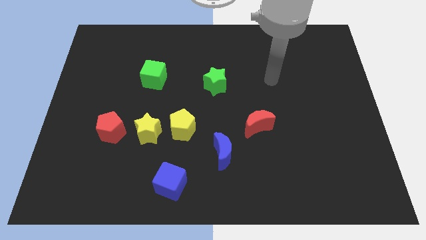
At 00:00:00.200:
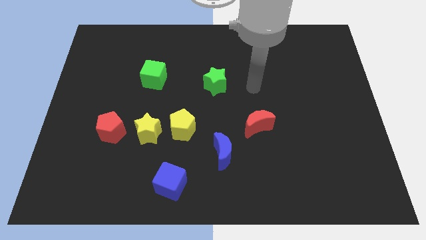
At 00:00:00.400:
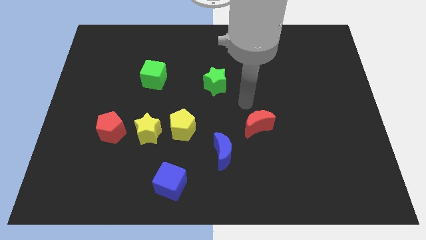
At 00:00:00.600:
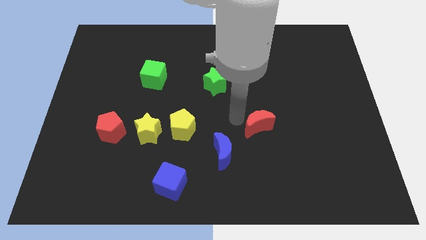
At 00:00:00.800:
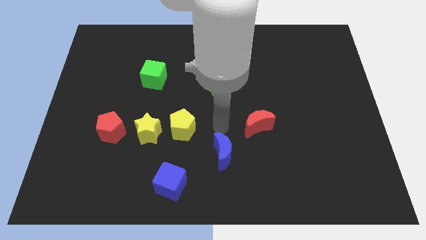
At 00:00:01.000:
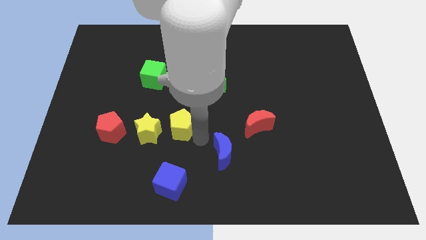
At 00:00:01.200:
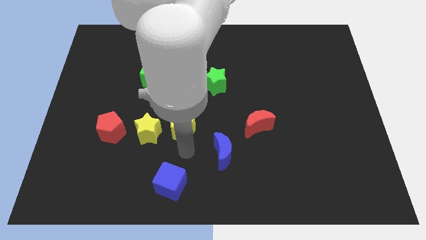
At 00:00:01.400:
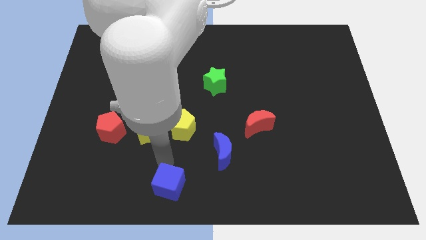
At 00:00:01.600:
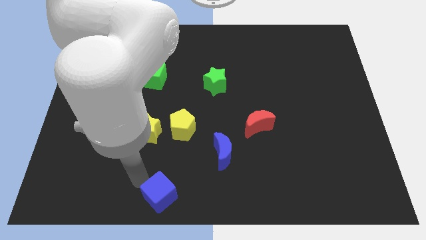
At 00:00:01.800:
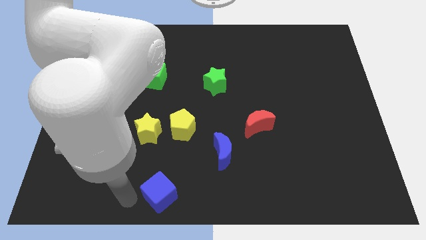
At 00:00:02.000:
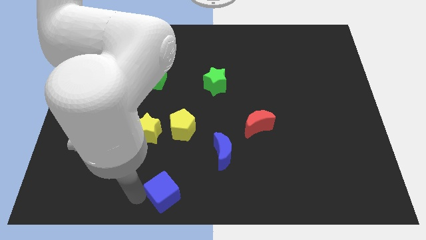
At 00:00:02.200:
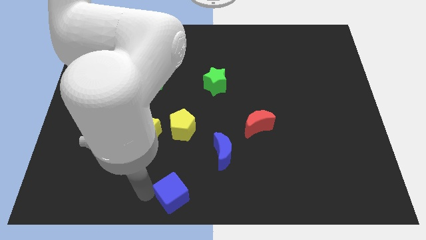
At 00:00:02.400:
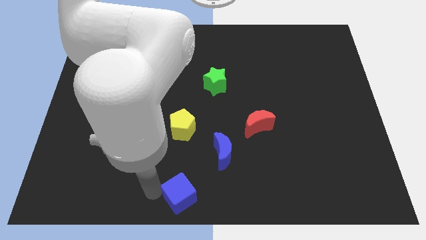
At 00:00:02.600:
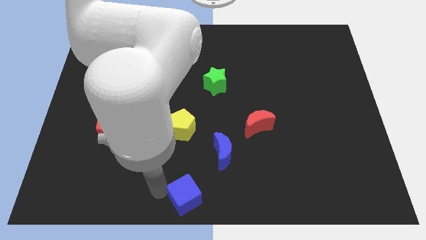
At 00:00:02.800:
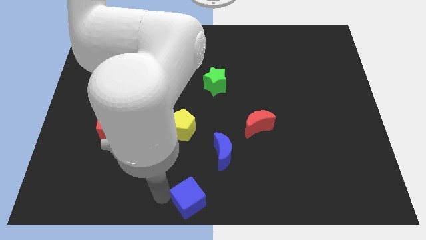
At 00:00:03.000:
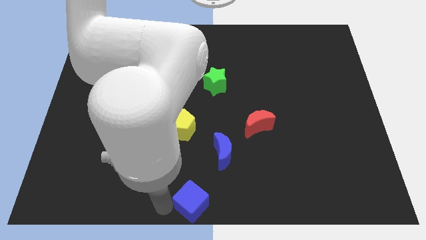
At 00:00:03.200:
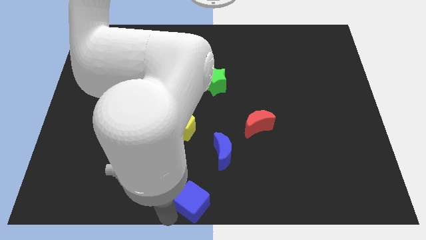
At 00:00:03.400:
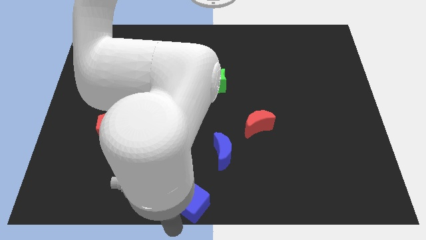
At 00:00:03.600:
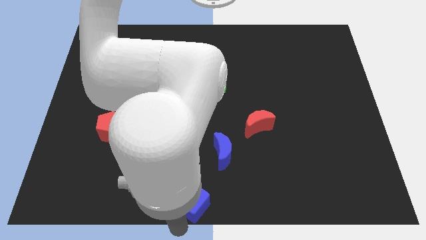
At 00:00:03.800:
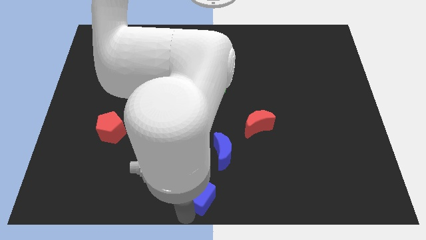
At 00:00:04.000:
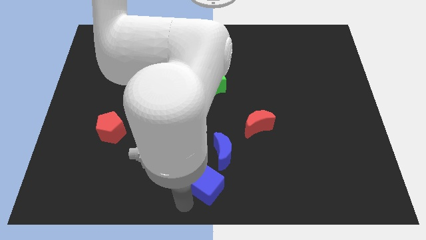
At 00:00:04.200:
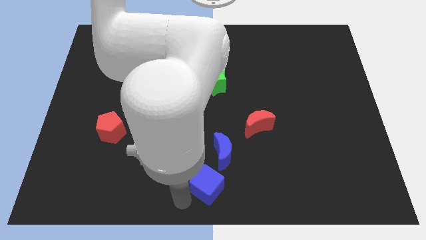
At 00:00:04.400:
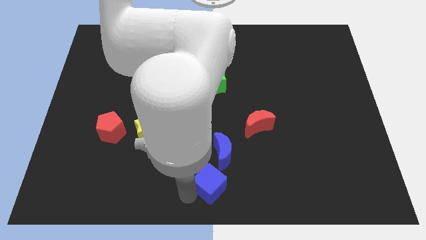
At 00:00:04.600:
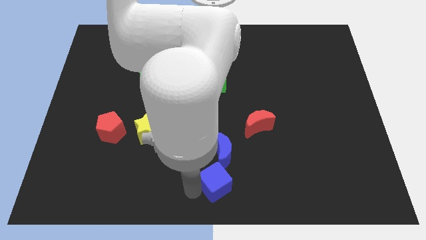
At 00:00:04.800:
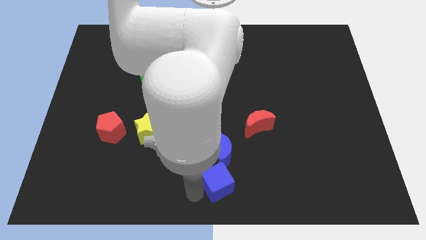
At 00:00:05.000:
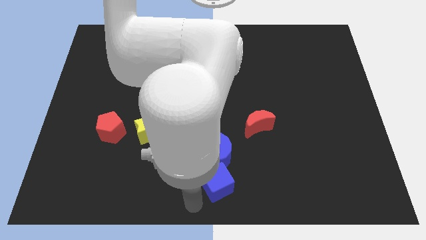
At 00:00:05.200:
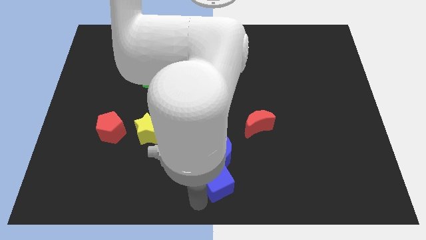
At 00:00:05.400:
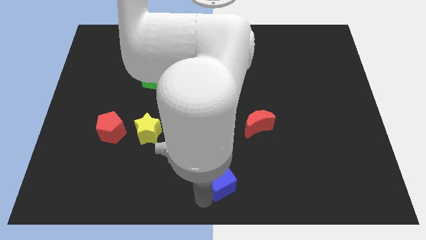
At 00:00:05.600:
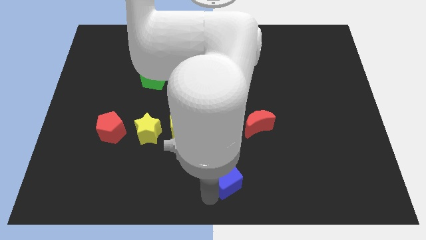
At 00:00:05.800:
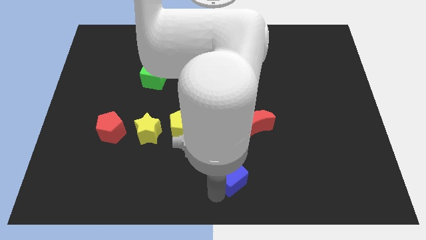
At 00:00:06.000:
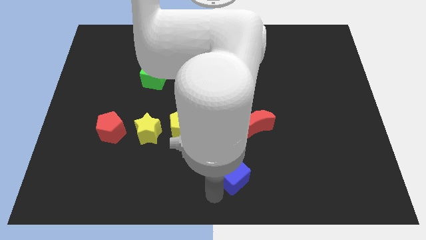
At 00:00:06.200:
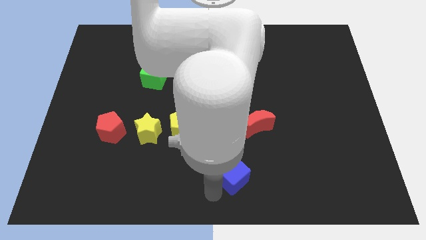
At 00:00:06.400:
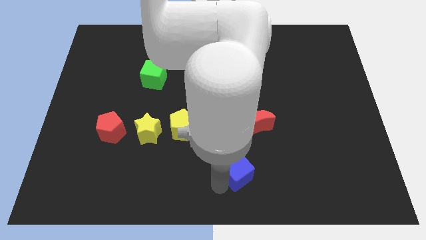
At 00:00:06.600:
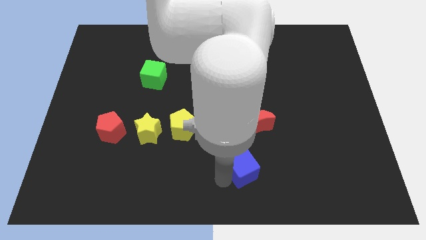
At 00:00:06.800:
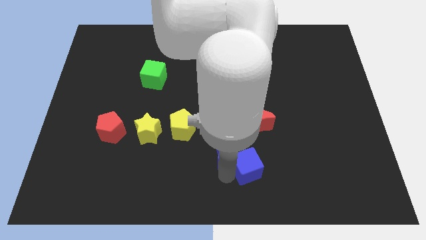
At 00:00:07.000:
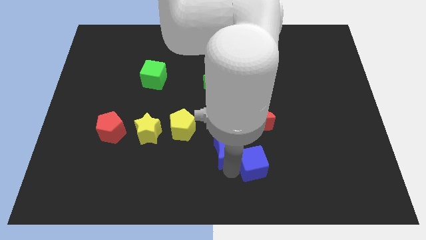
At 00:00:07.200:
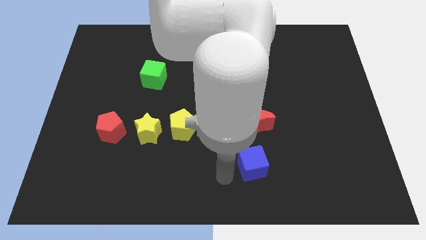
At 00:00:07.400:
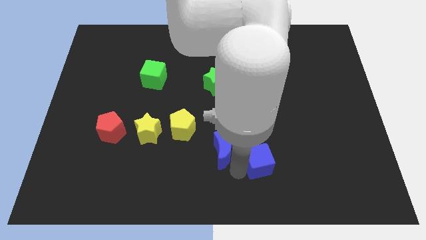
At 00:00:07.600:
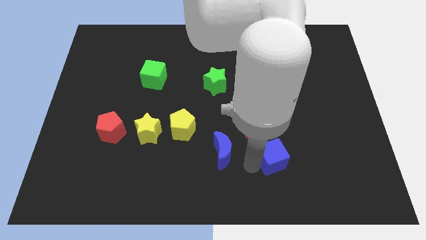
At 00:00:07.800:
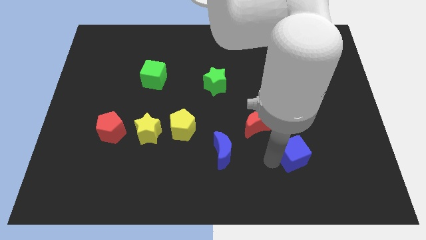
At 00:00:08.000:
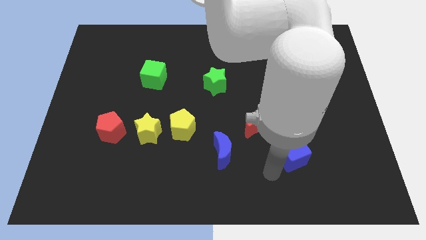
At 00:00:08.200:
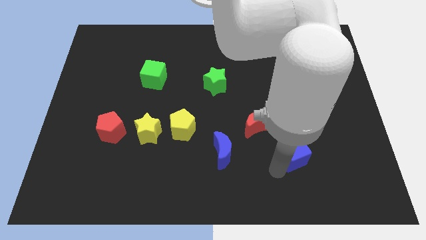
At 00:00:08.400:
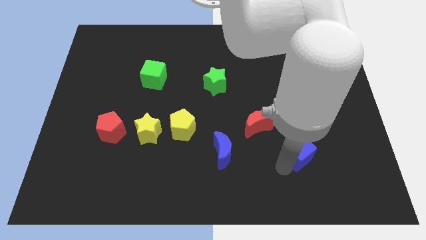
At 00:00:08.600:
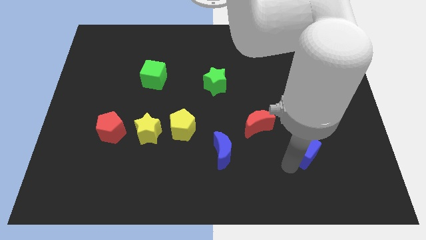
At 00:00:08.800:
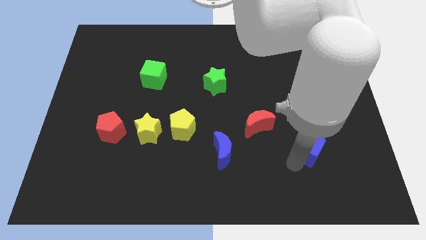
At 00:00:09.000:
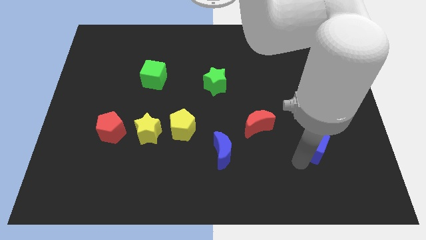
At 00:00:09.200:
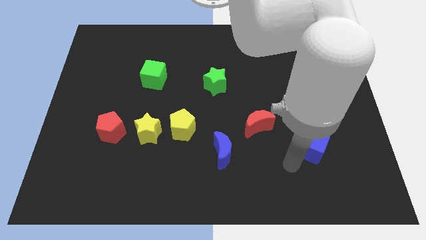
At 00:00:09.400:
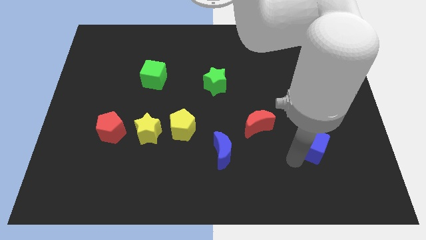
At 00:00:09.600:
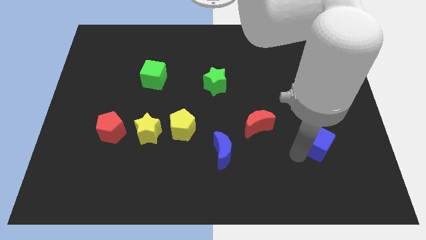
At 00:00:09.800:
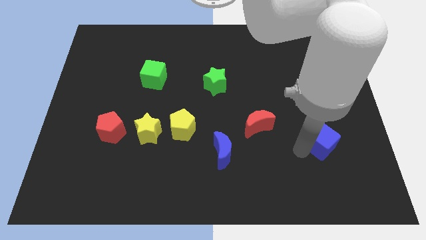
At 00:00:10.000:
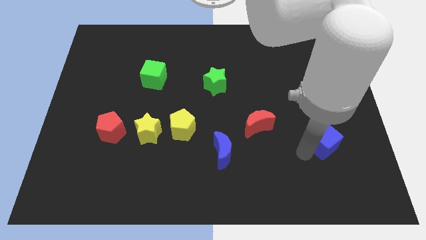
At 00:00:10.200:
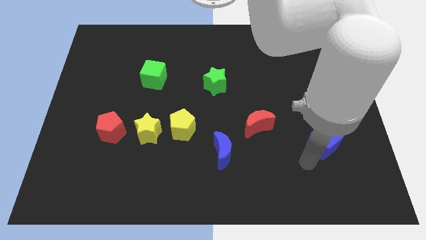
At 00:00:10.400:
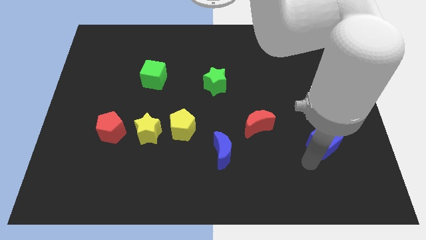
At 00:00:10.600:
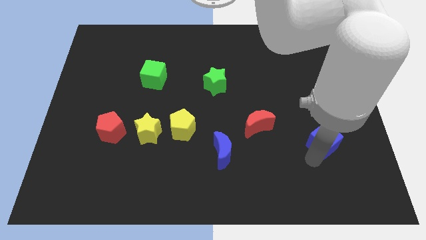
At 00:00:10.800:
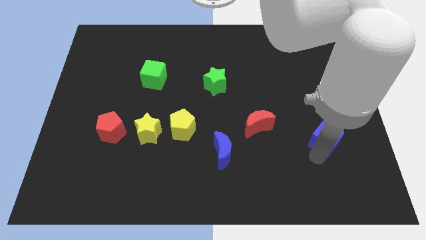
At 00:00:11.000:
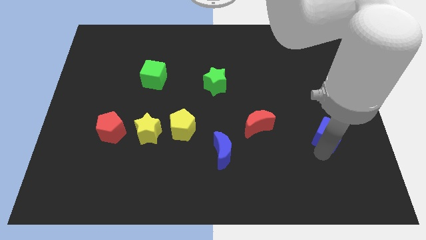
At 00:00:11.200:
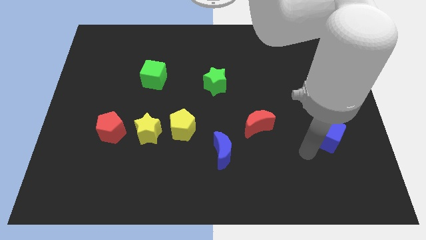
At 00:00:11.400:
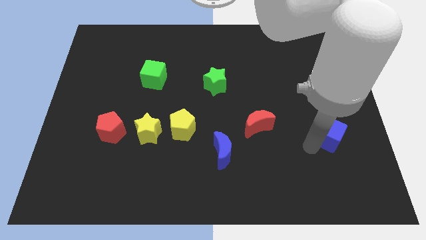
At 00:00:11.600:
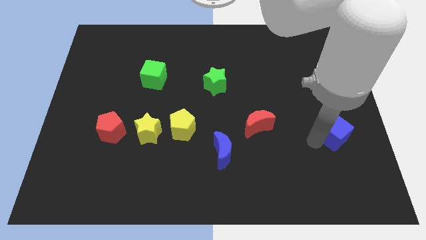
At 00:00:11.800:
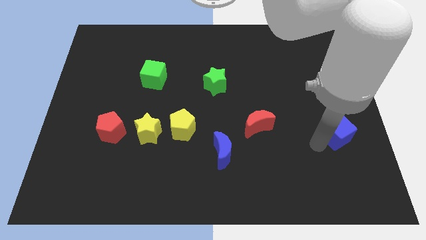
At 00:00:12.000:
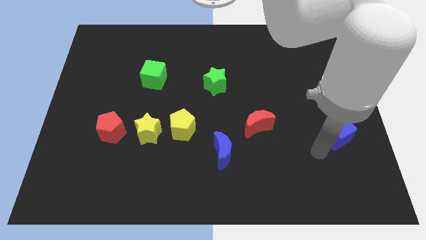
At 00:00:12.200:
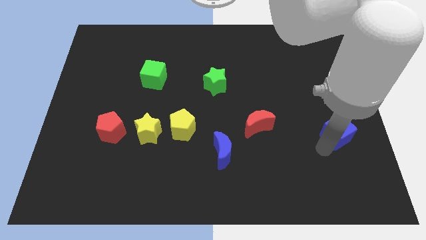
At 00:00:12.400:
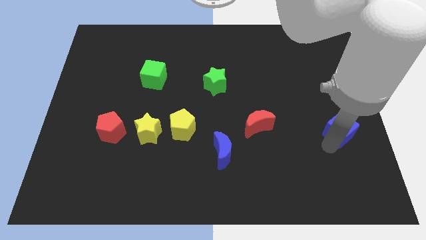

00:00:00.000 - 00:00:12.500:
put the blue cube to the right side

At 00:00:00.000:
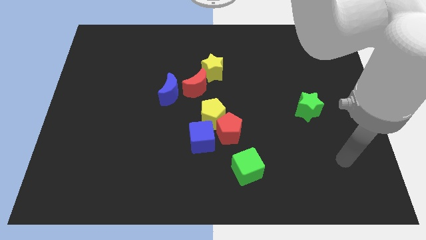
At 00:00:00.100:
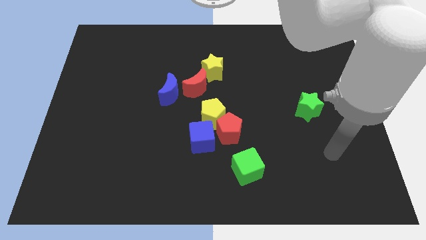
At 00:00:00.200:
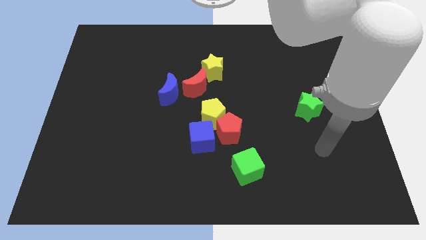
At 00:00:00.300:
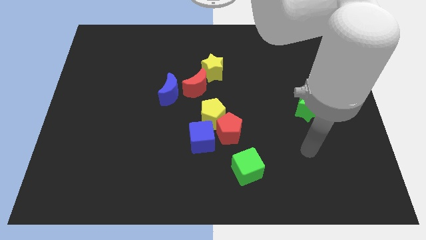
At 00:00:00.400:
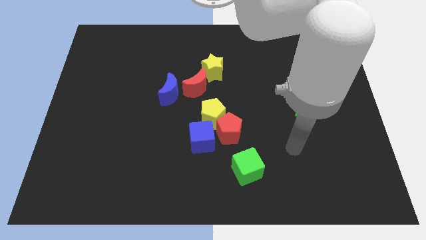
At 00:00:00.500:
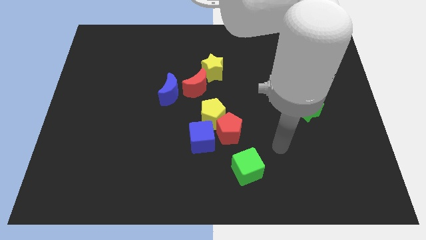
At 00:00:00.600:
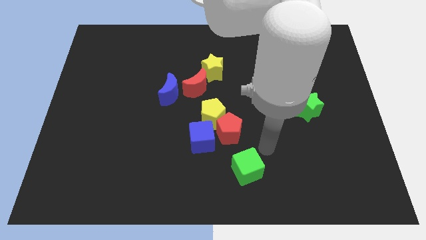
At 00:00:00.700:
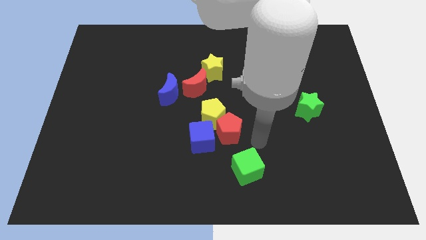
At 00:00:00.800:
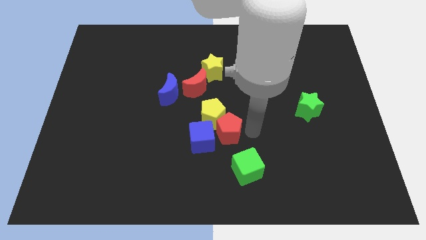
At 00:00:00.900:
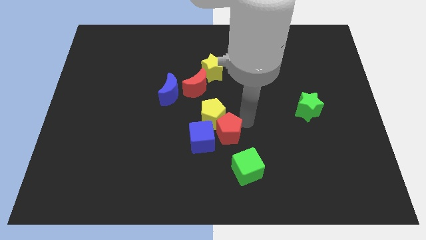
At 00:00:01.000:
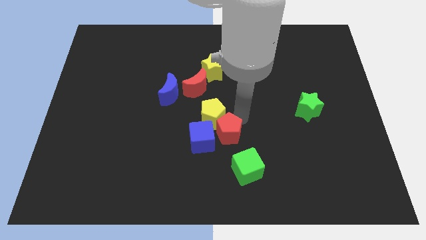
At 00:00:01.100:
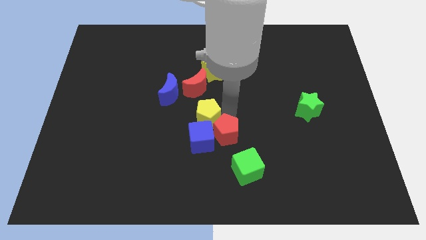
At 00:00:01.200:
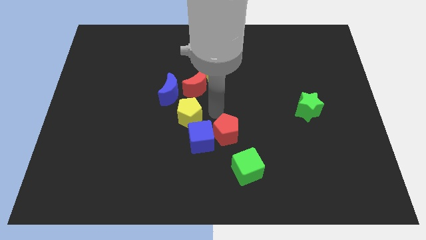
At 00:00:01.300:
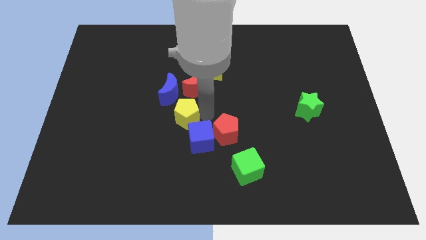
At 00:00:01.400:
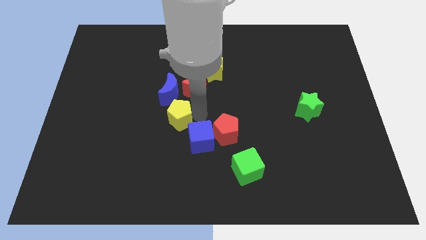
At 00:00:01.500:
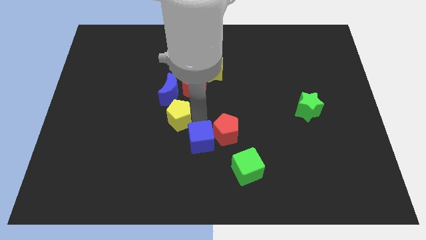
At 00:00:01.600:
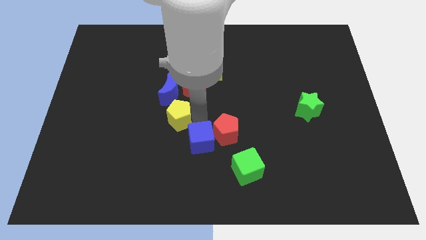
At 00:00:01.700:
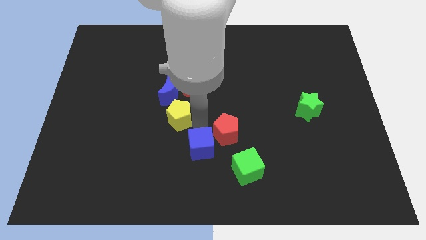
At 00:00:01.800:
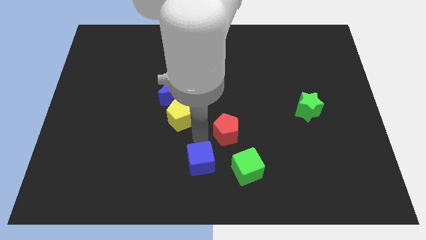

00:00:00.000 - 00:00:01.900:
slide the blue cube to the bottom
